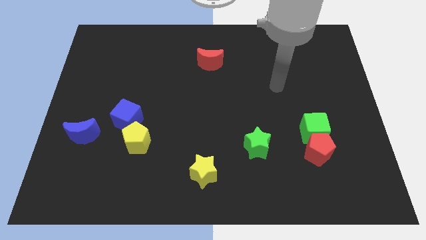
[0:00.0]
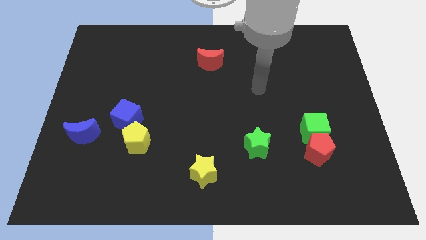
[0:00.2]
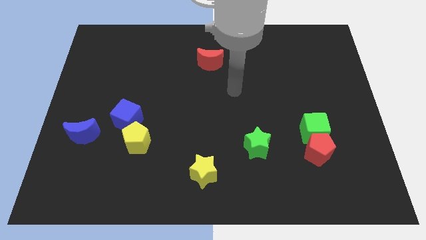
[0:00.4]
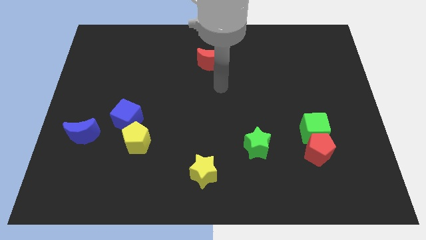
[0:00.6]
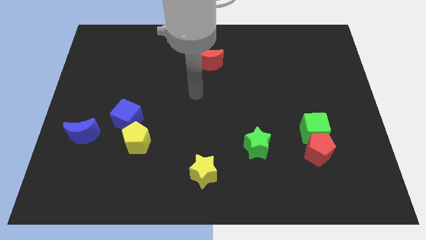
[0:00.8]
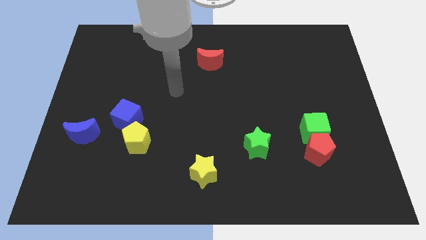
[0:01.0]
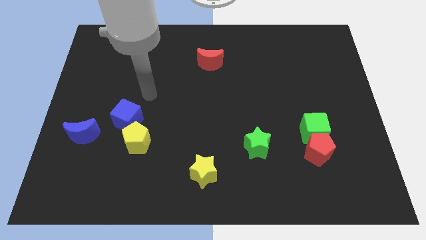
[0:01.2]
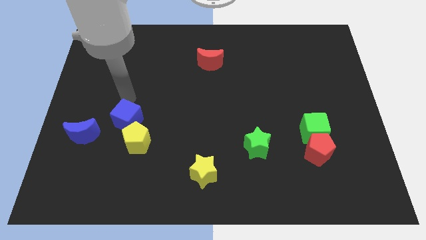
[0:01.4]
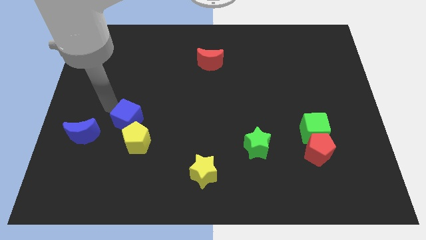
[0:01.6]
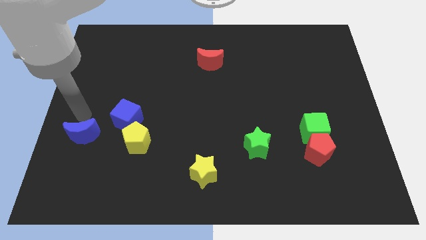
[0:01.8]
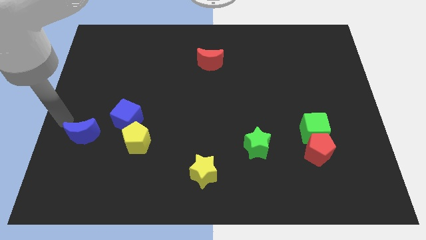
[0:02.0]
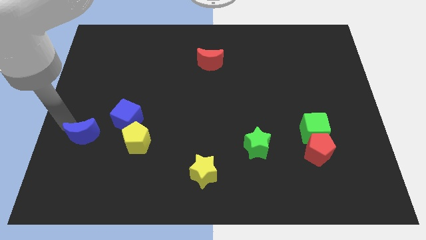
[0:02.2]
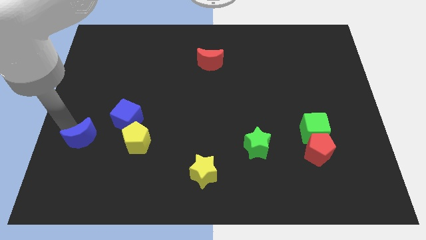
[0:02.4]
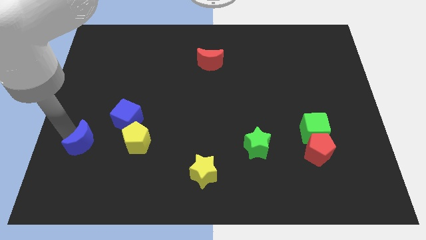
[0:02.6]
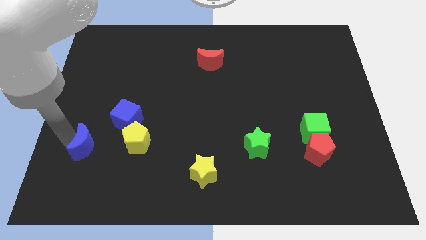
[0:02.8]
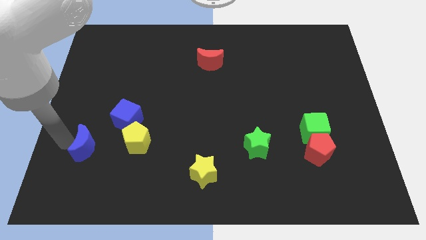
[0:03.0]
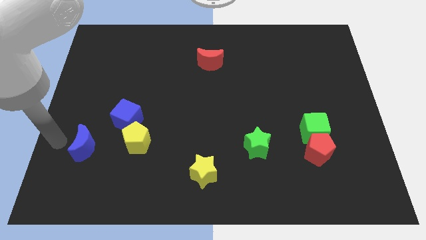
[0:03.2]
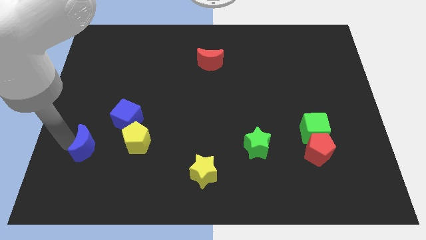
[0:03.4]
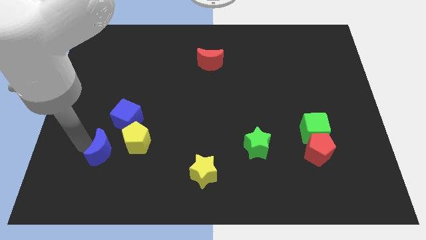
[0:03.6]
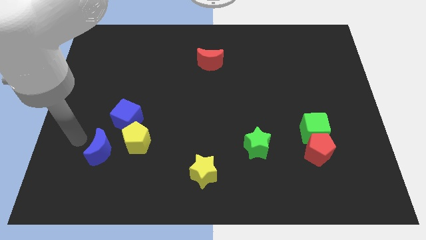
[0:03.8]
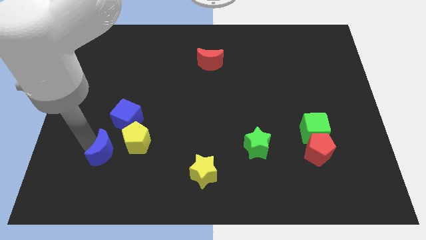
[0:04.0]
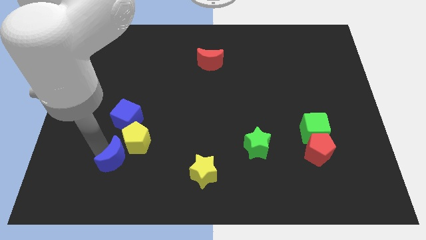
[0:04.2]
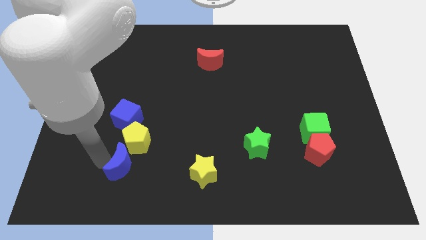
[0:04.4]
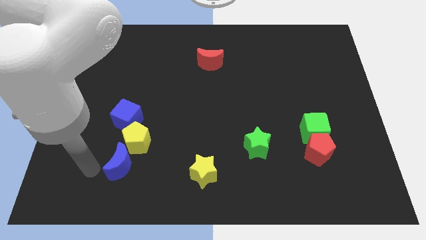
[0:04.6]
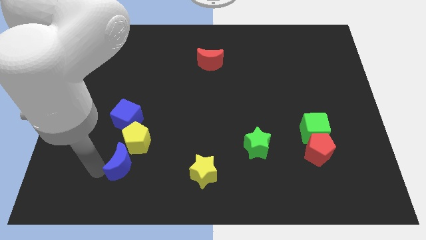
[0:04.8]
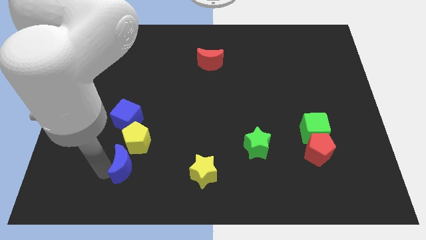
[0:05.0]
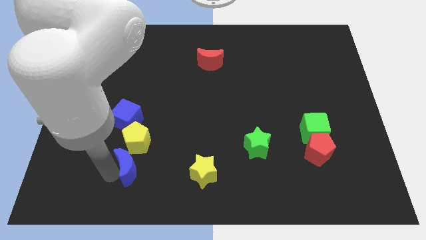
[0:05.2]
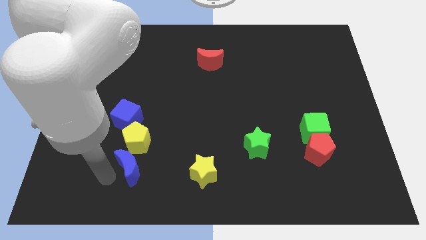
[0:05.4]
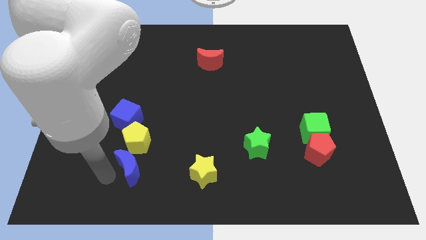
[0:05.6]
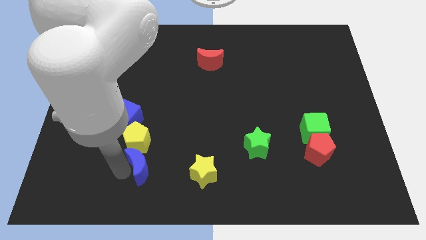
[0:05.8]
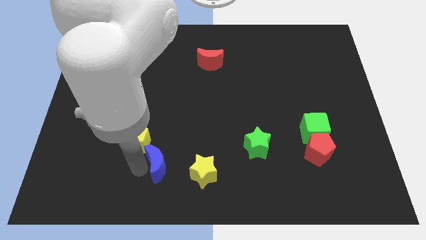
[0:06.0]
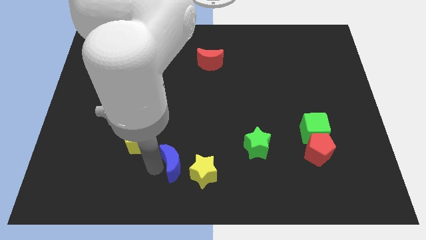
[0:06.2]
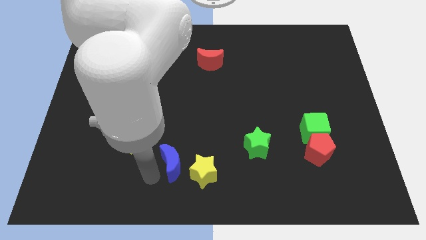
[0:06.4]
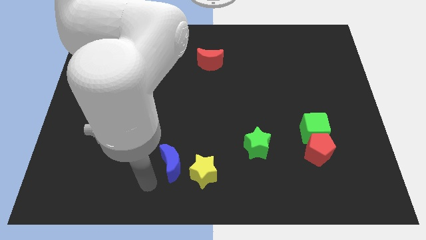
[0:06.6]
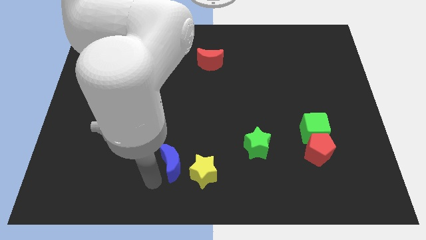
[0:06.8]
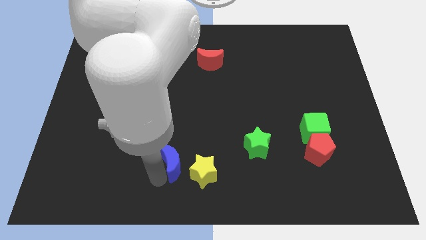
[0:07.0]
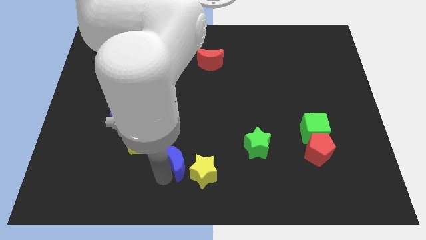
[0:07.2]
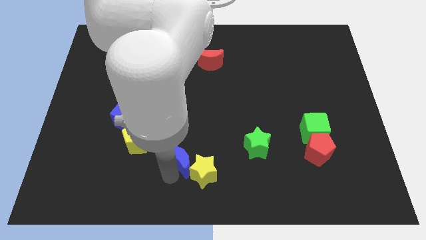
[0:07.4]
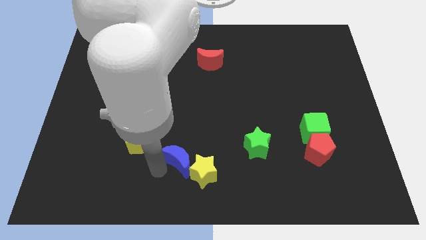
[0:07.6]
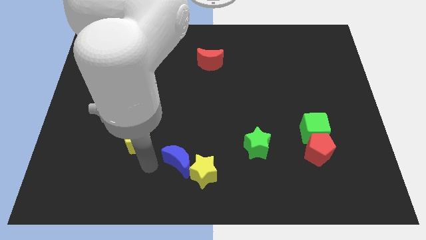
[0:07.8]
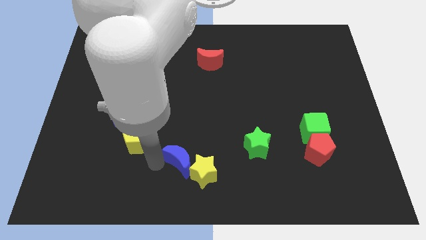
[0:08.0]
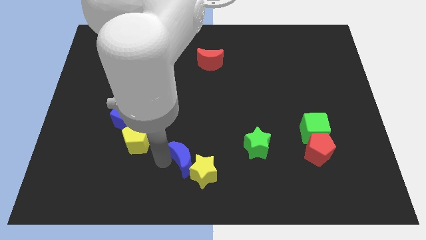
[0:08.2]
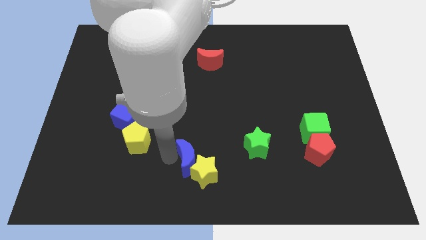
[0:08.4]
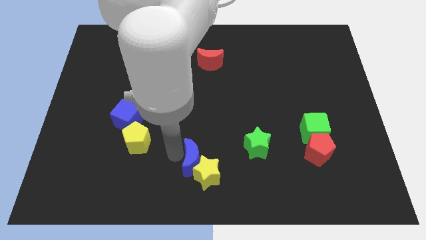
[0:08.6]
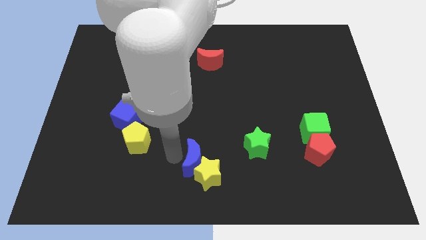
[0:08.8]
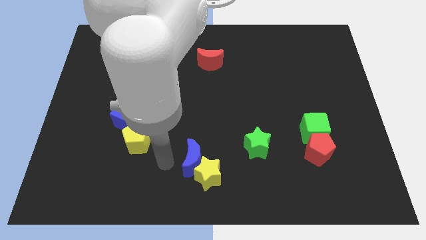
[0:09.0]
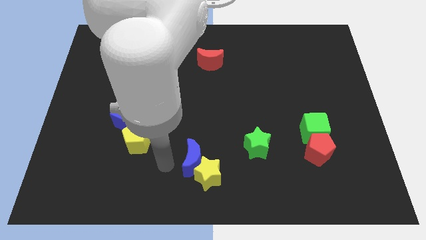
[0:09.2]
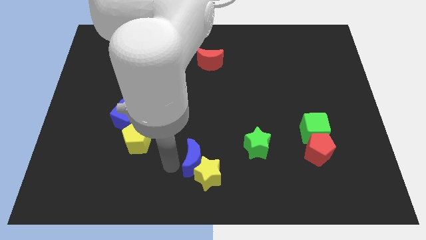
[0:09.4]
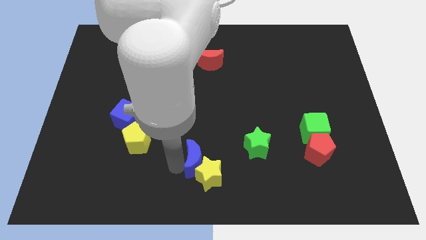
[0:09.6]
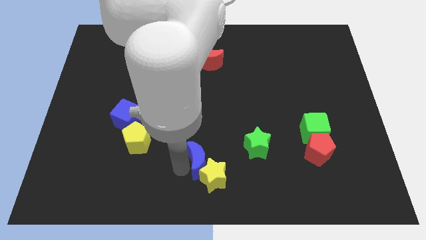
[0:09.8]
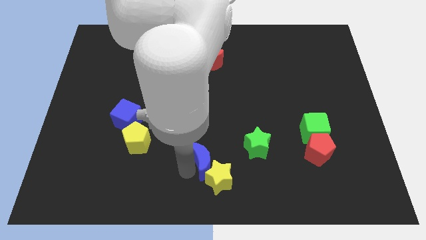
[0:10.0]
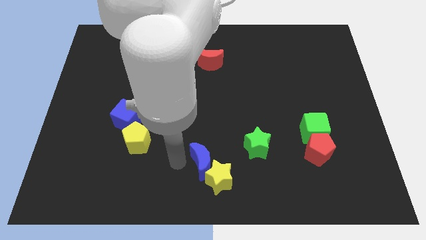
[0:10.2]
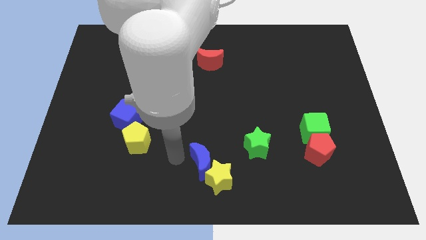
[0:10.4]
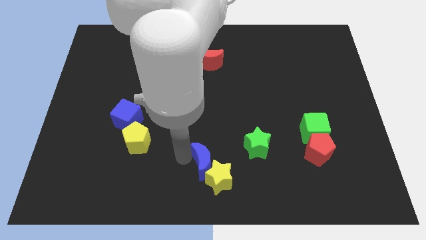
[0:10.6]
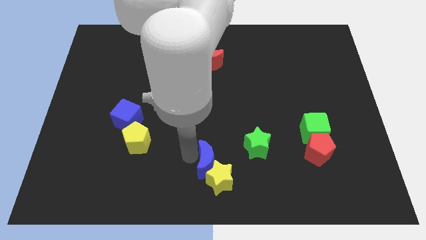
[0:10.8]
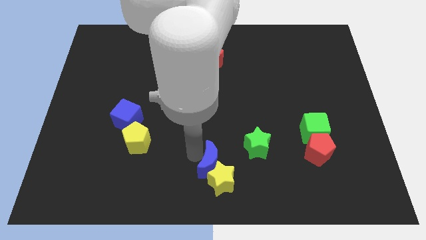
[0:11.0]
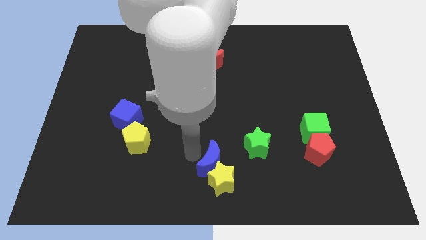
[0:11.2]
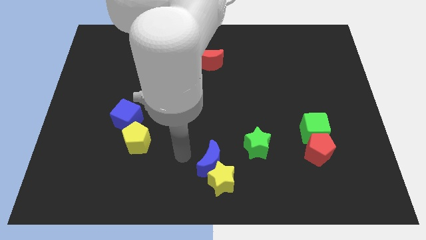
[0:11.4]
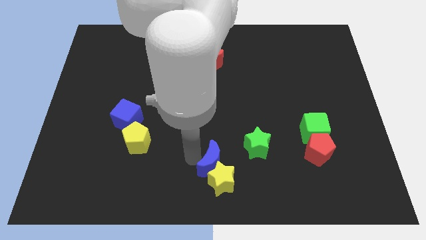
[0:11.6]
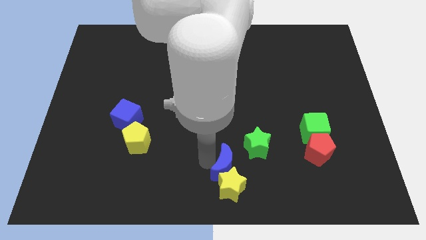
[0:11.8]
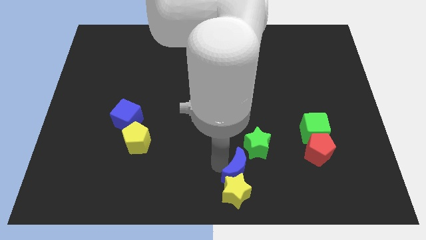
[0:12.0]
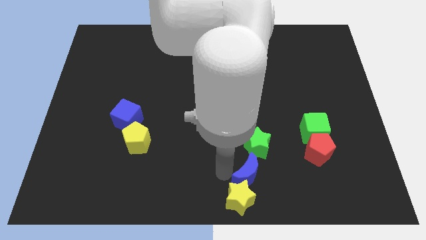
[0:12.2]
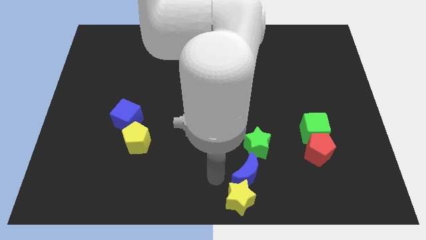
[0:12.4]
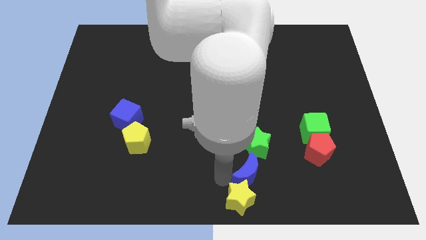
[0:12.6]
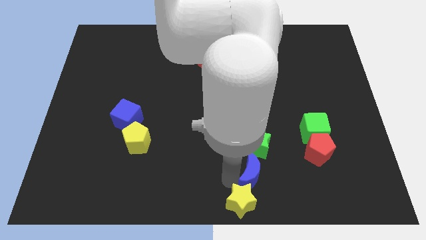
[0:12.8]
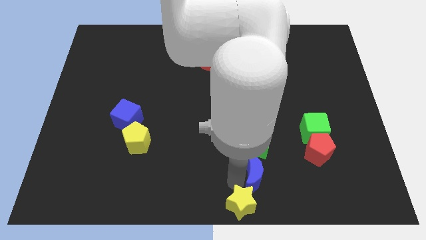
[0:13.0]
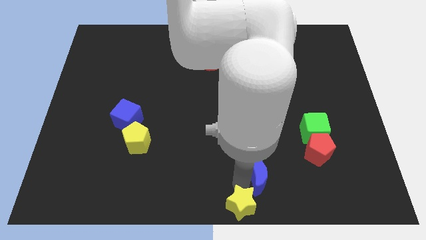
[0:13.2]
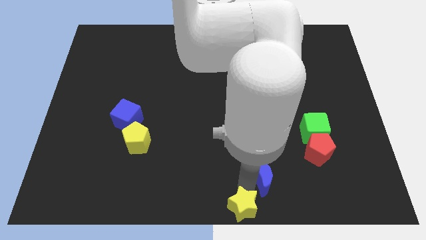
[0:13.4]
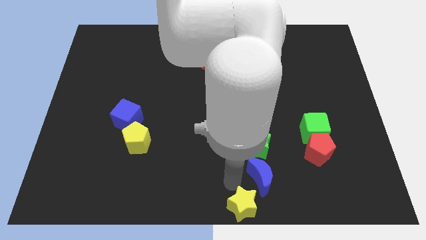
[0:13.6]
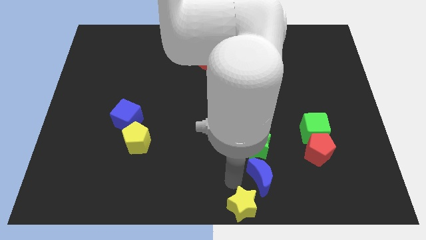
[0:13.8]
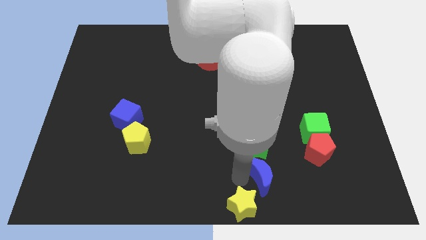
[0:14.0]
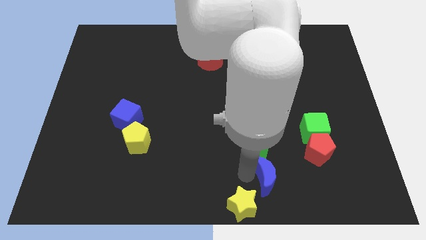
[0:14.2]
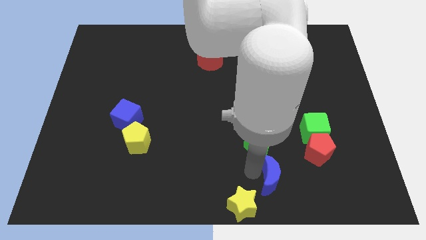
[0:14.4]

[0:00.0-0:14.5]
push the blue moon to the bottom left of the red pentagon
